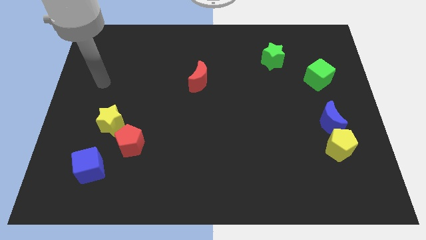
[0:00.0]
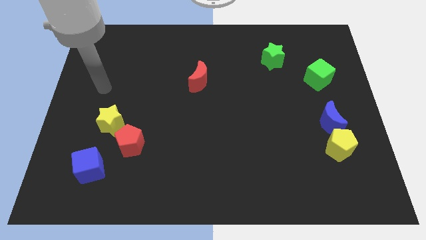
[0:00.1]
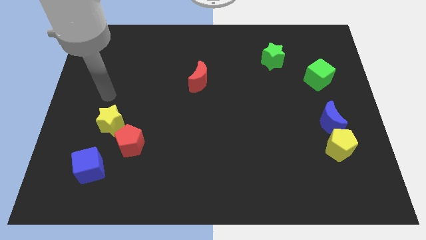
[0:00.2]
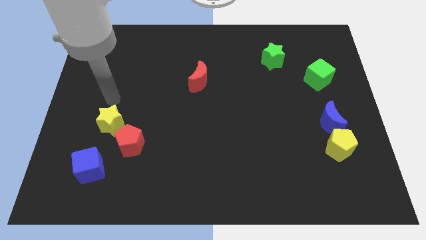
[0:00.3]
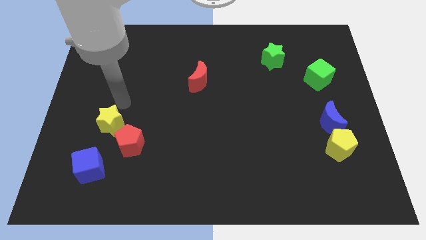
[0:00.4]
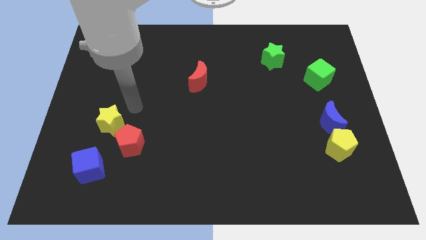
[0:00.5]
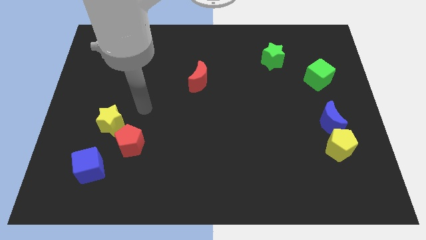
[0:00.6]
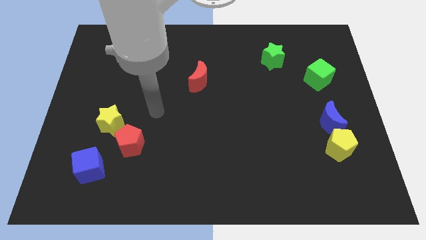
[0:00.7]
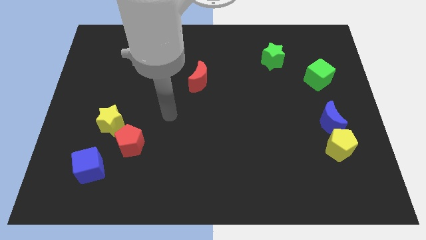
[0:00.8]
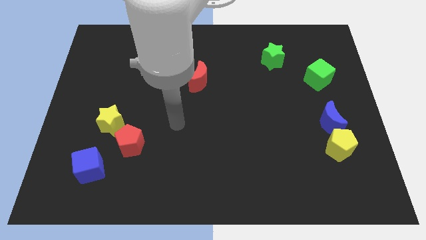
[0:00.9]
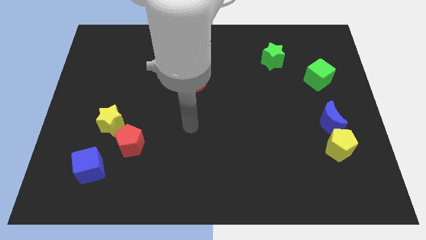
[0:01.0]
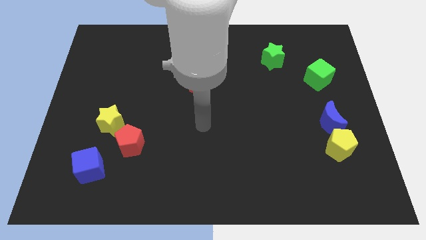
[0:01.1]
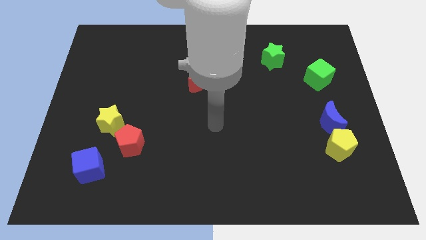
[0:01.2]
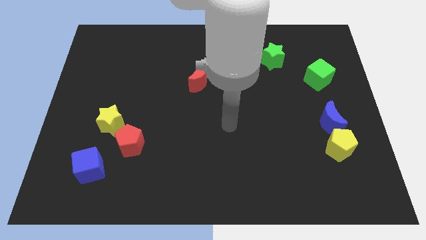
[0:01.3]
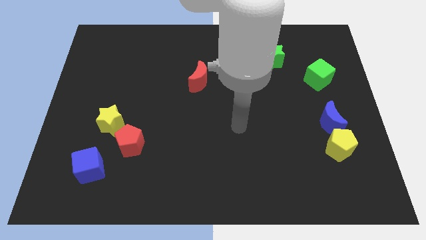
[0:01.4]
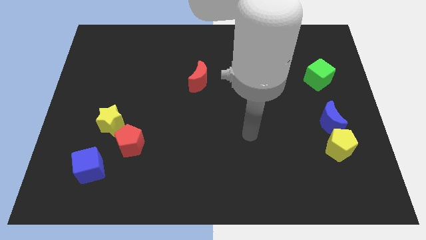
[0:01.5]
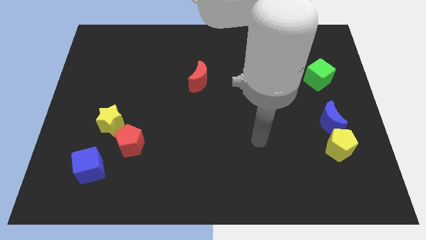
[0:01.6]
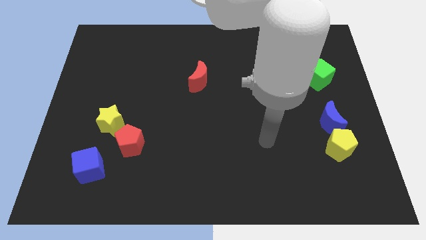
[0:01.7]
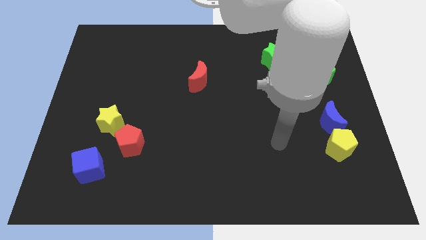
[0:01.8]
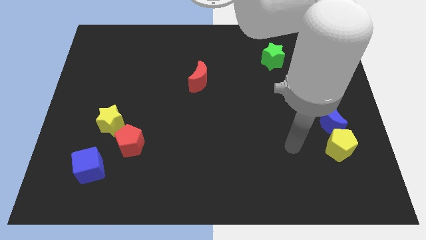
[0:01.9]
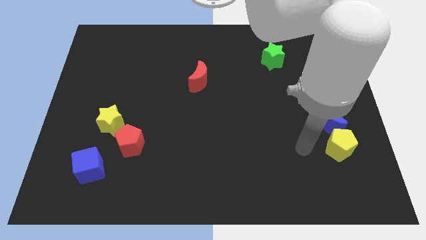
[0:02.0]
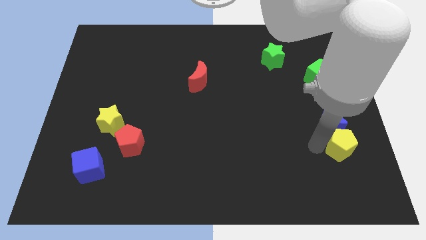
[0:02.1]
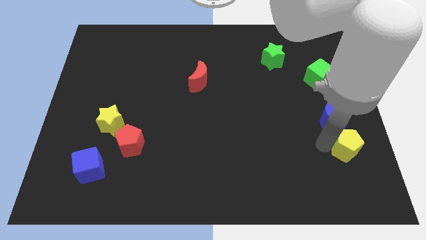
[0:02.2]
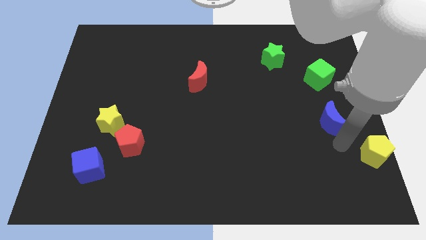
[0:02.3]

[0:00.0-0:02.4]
pull the blue moon apart from the yellow pentagon

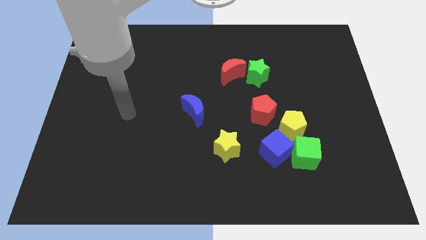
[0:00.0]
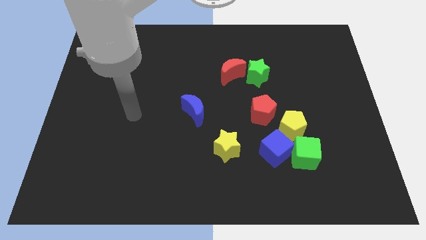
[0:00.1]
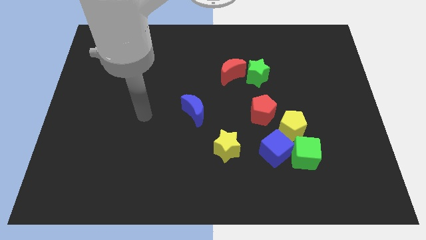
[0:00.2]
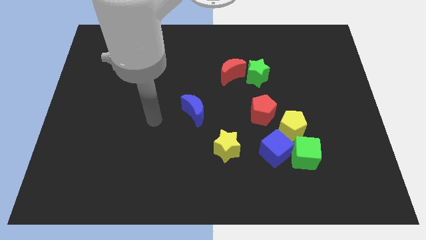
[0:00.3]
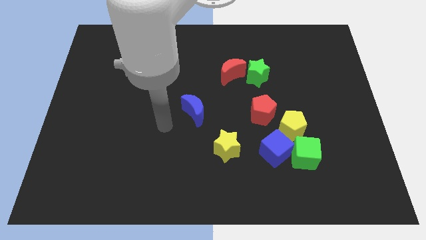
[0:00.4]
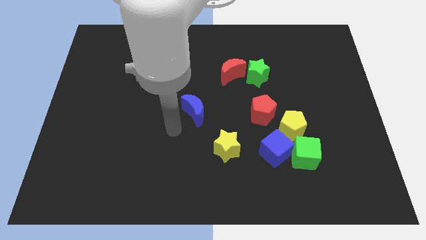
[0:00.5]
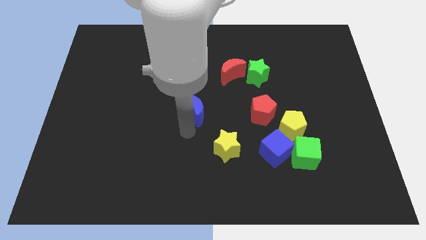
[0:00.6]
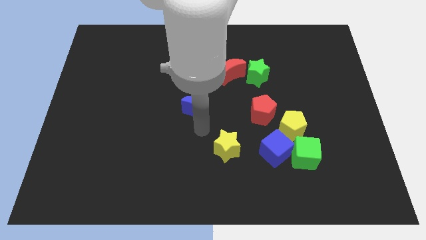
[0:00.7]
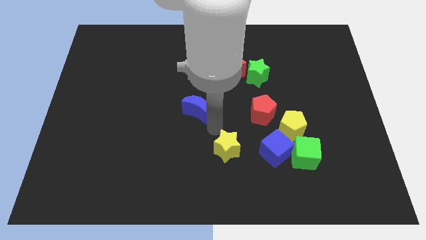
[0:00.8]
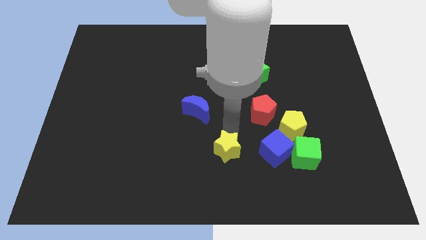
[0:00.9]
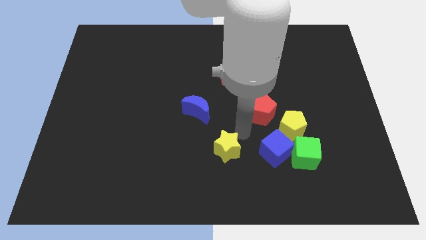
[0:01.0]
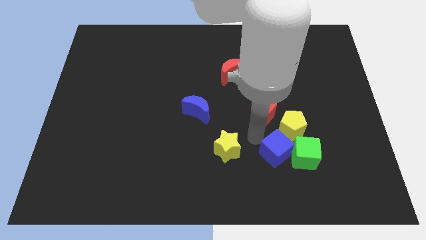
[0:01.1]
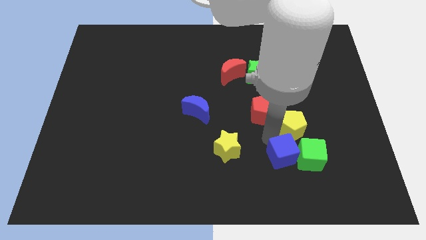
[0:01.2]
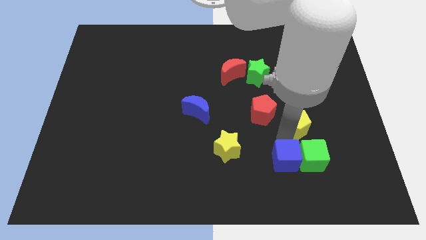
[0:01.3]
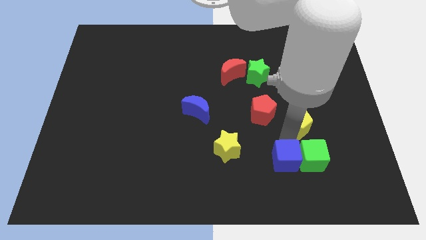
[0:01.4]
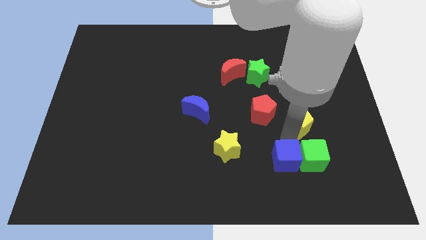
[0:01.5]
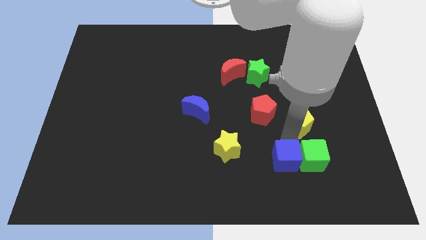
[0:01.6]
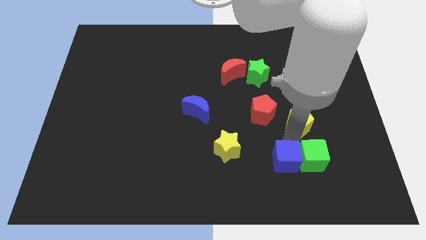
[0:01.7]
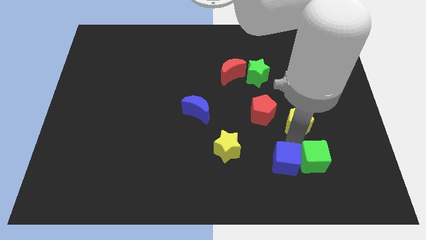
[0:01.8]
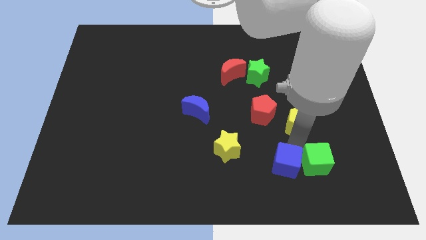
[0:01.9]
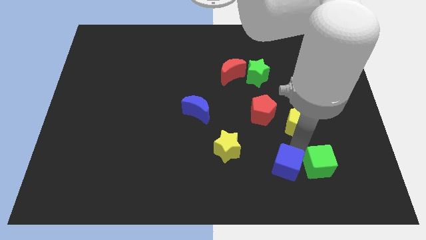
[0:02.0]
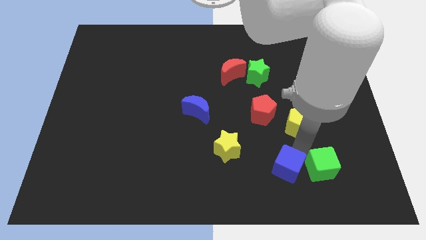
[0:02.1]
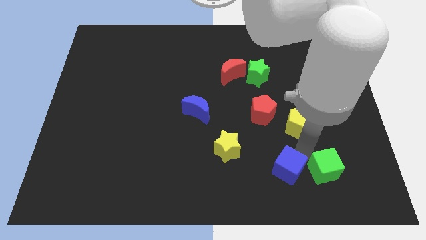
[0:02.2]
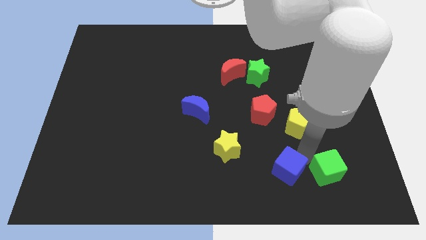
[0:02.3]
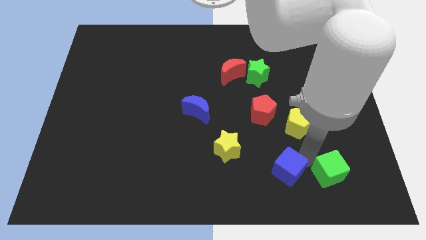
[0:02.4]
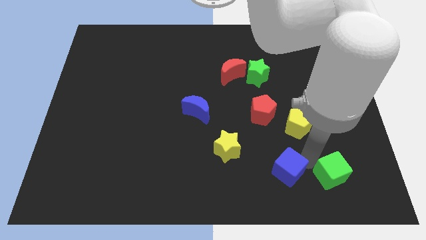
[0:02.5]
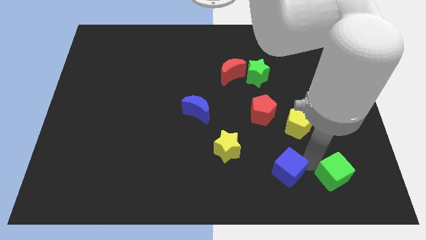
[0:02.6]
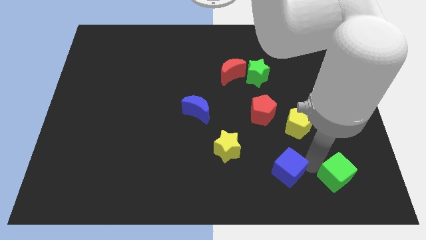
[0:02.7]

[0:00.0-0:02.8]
move the green cube away from the blue cube and yellow pentagon

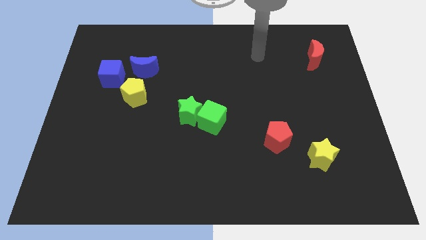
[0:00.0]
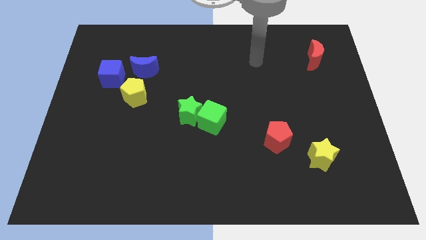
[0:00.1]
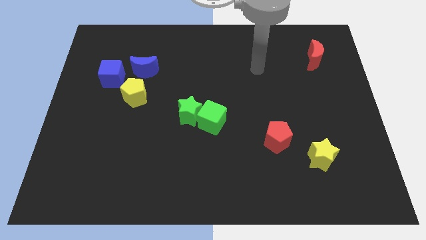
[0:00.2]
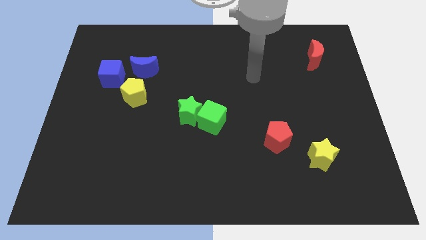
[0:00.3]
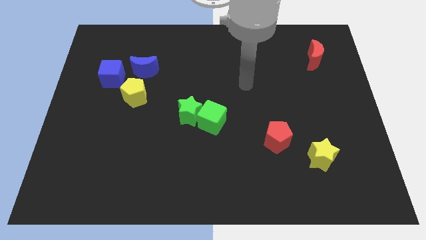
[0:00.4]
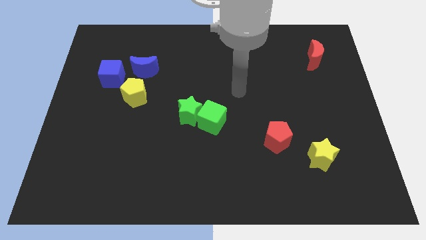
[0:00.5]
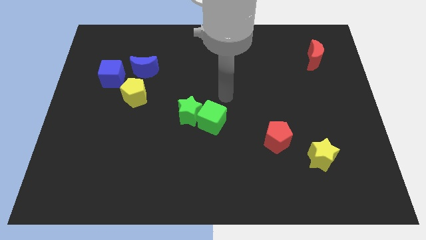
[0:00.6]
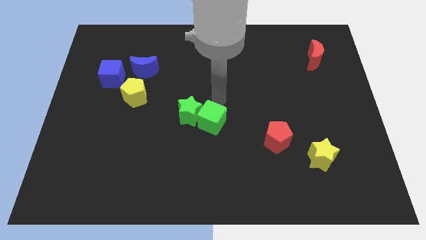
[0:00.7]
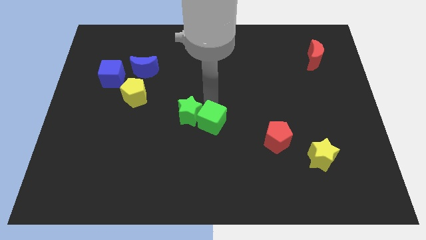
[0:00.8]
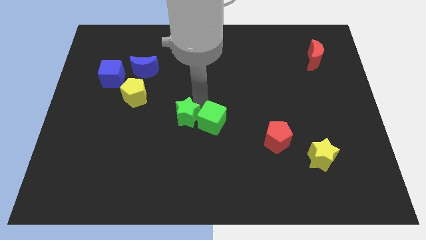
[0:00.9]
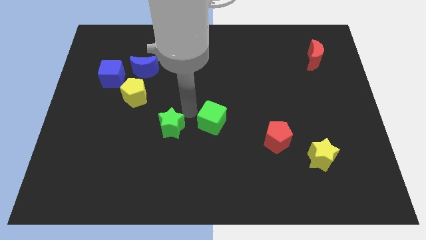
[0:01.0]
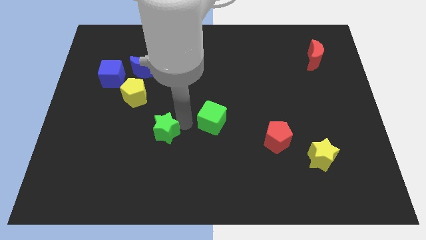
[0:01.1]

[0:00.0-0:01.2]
separate the green cube from the green star

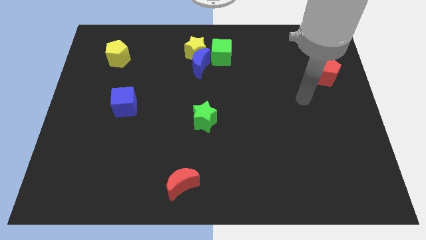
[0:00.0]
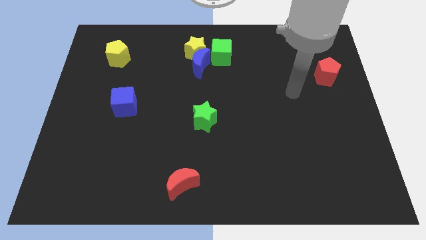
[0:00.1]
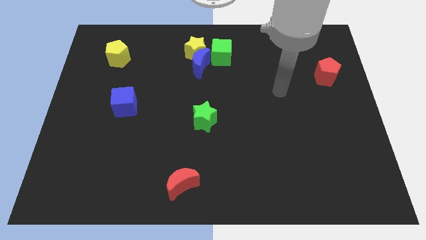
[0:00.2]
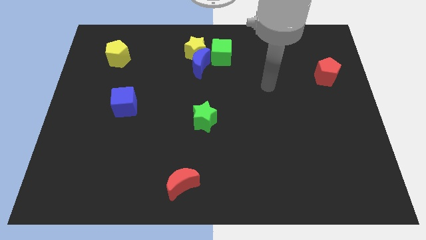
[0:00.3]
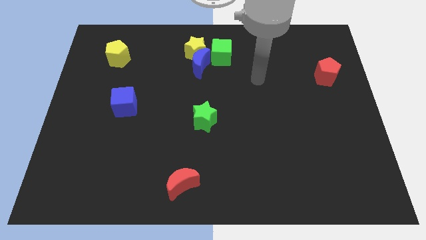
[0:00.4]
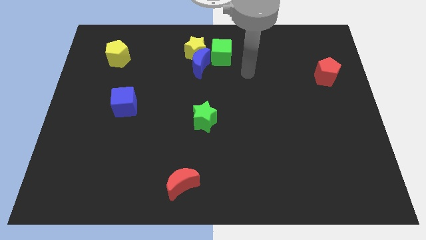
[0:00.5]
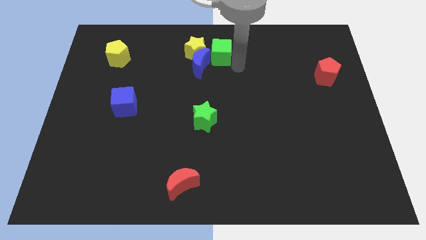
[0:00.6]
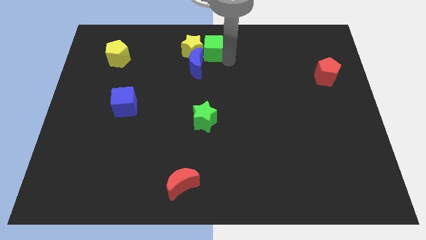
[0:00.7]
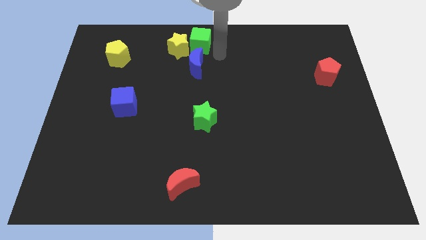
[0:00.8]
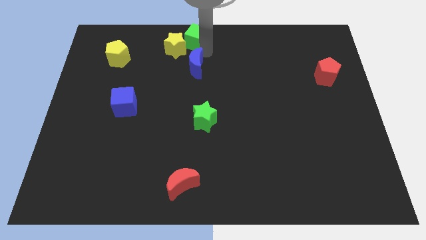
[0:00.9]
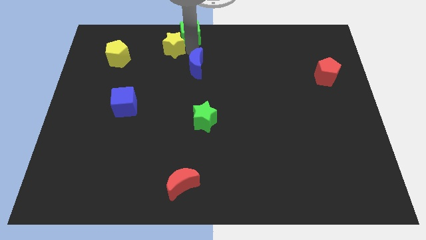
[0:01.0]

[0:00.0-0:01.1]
separate the blue moon from the yellow star and green cube

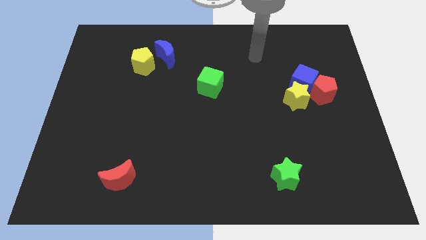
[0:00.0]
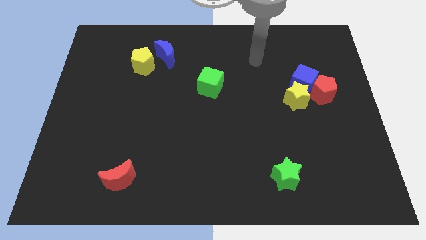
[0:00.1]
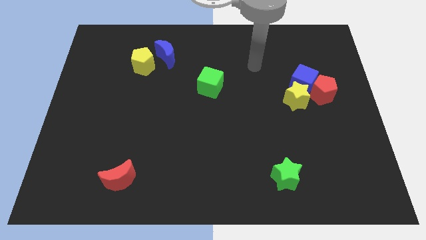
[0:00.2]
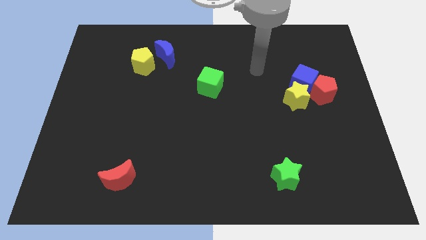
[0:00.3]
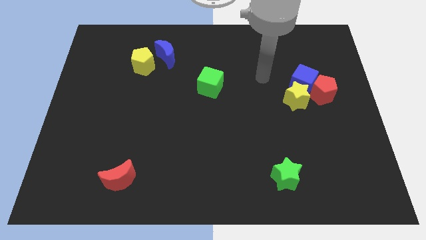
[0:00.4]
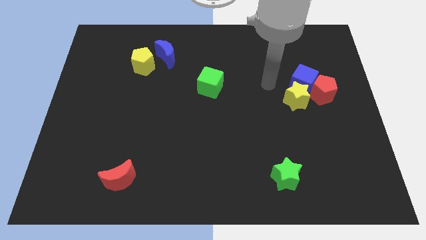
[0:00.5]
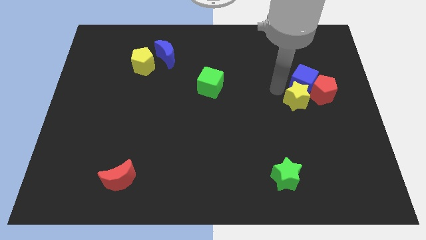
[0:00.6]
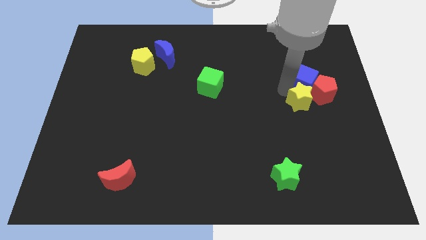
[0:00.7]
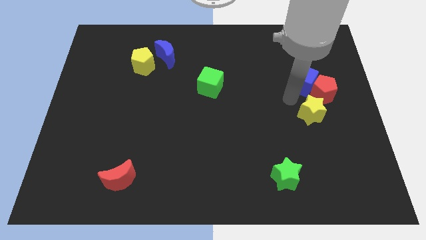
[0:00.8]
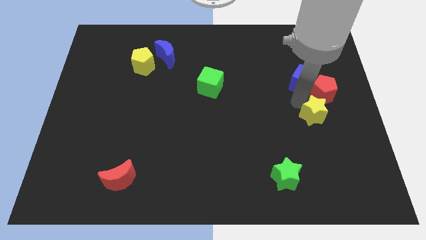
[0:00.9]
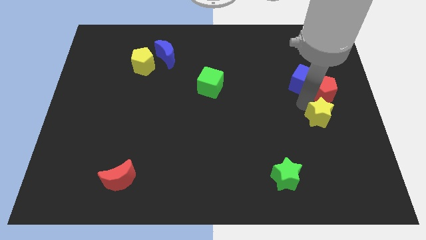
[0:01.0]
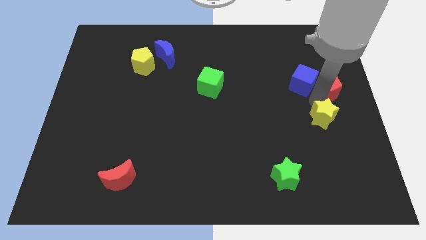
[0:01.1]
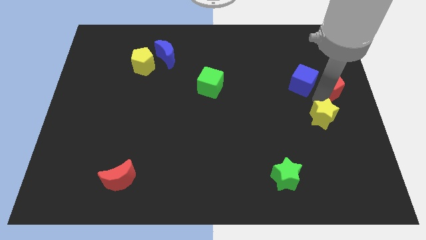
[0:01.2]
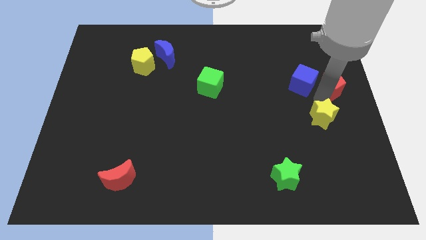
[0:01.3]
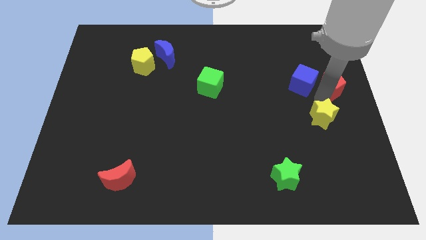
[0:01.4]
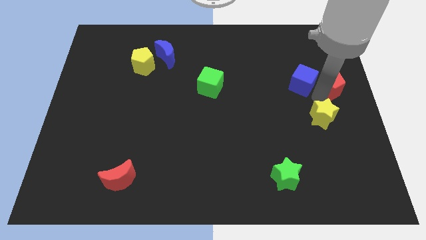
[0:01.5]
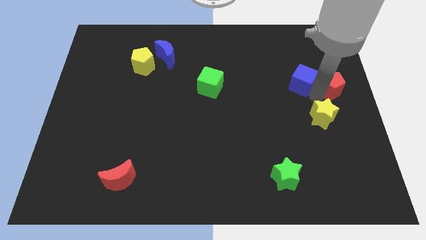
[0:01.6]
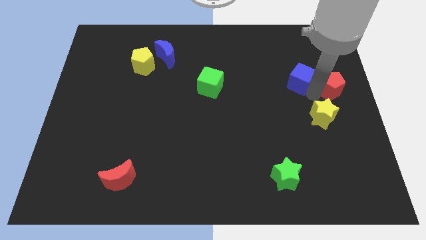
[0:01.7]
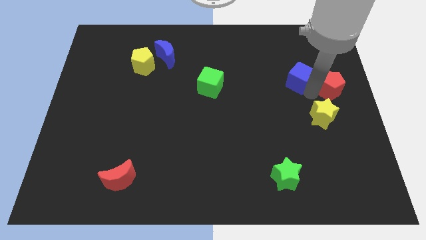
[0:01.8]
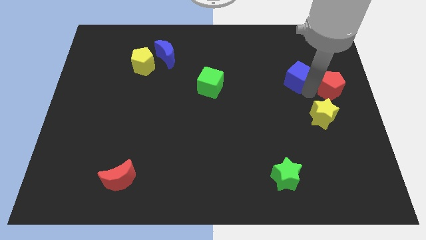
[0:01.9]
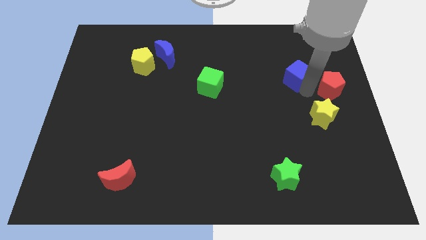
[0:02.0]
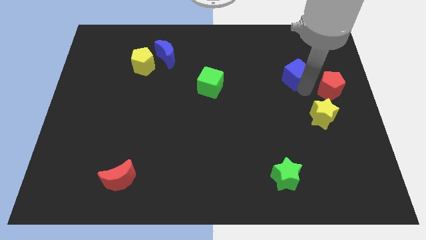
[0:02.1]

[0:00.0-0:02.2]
pull the blue cube apart from the red pentagon and yellow star
